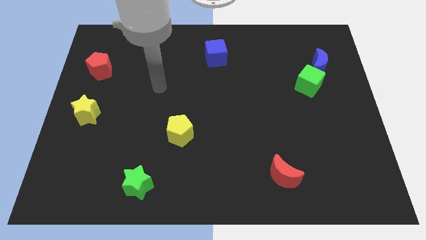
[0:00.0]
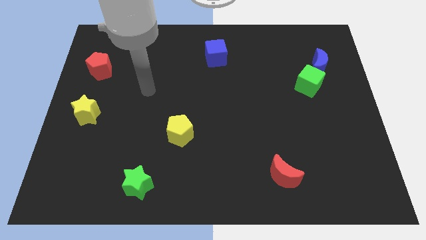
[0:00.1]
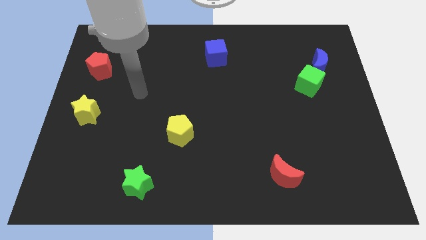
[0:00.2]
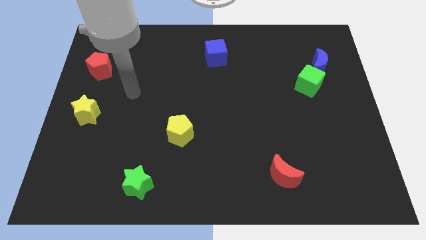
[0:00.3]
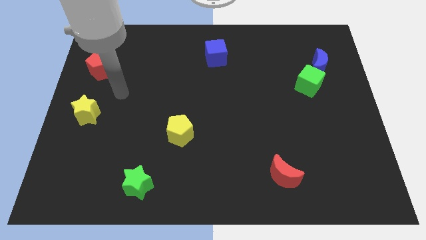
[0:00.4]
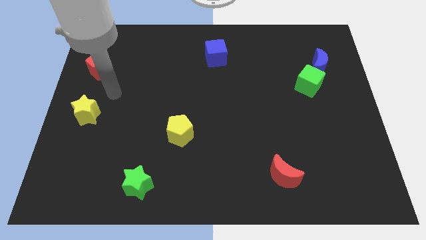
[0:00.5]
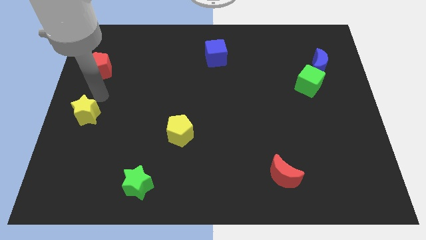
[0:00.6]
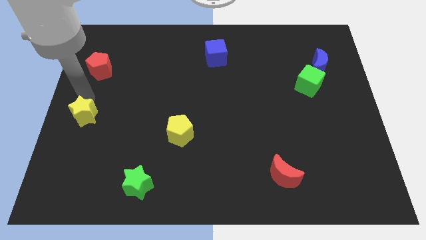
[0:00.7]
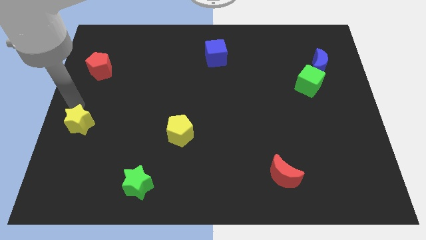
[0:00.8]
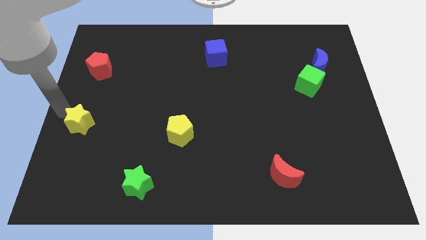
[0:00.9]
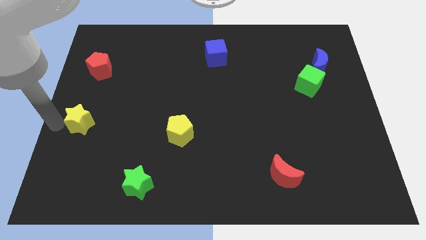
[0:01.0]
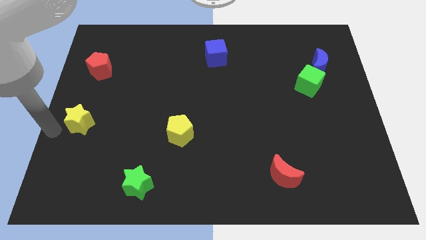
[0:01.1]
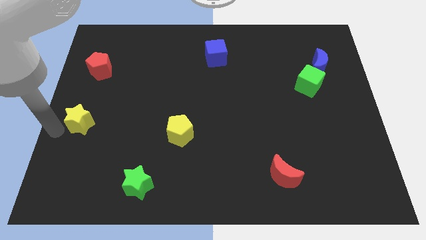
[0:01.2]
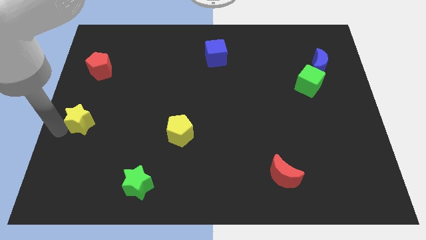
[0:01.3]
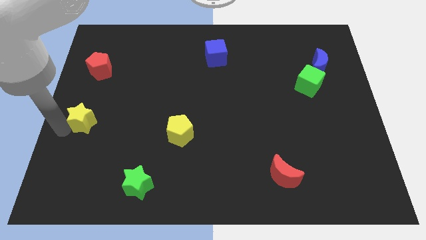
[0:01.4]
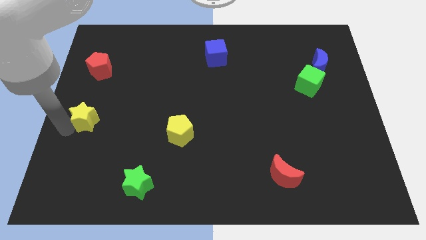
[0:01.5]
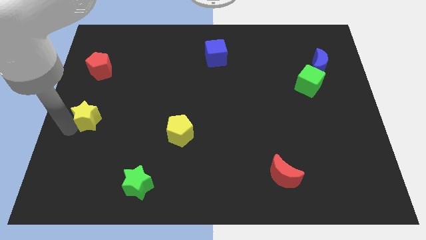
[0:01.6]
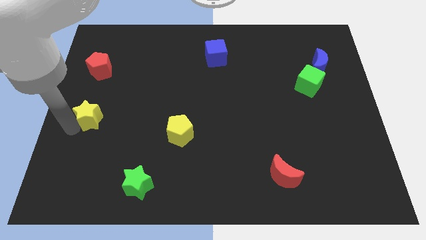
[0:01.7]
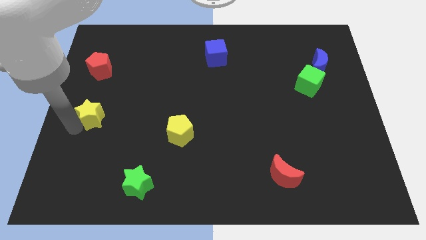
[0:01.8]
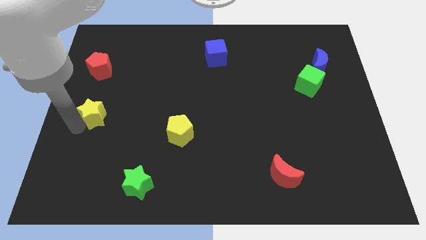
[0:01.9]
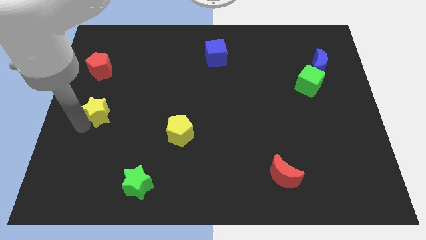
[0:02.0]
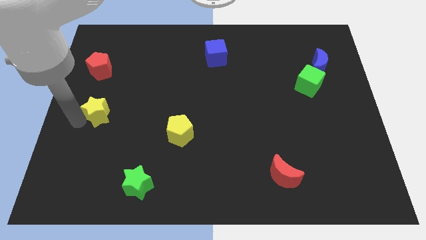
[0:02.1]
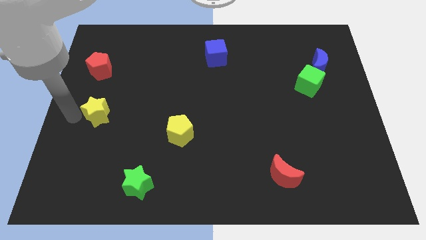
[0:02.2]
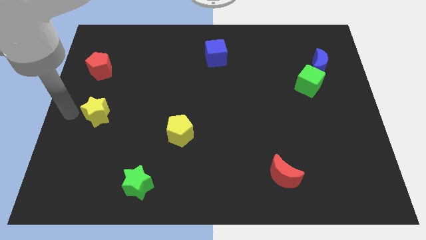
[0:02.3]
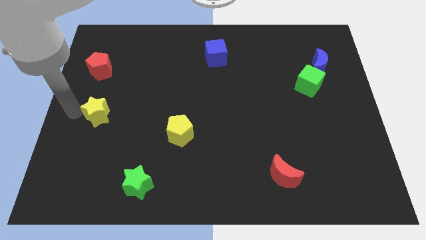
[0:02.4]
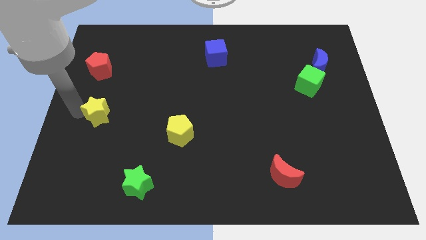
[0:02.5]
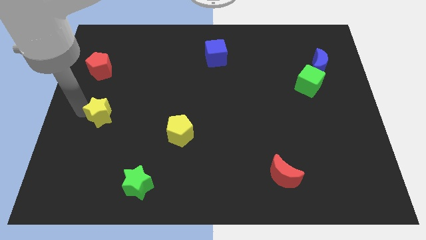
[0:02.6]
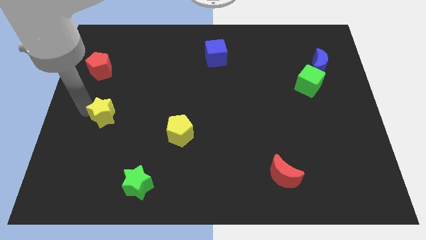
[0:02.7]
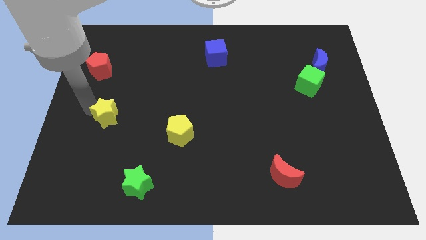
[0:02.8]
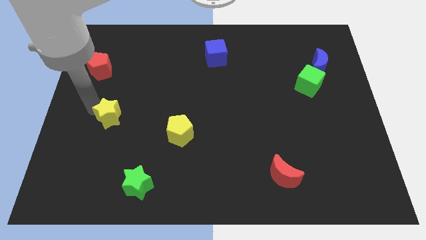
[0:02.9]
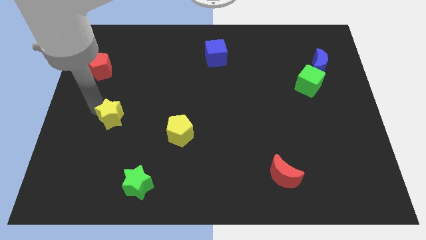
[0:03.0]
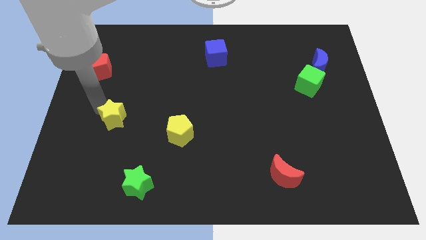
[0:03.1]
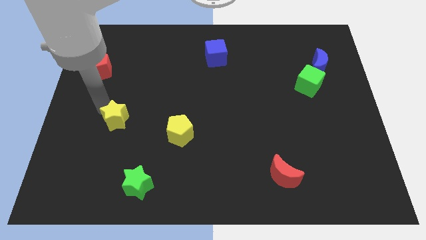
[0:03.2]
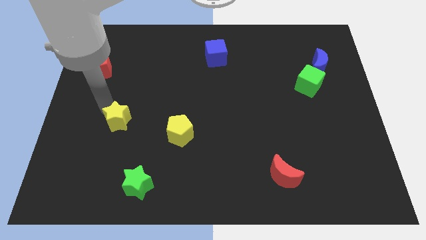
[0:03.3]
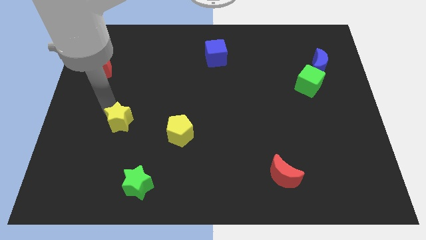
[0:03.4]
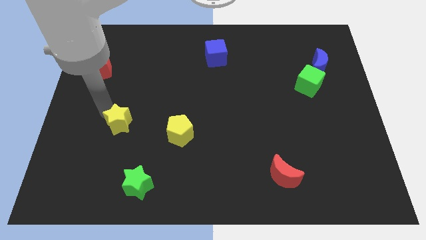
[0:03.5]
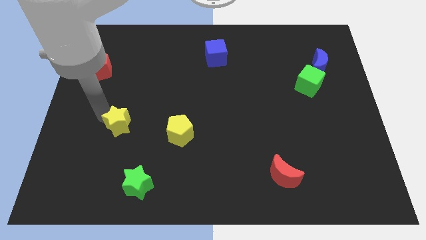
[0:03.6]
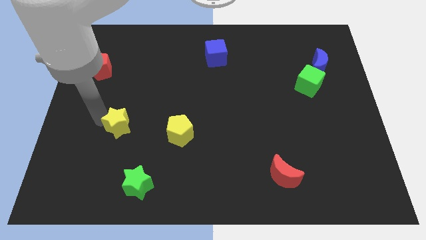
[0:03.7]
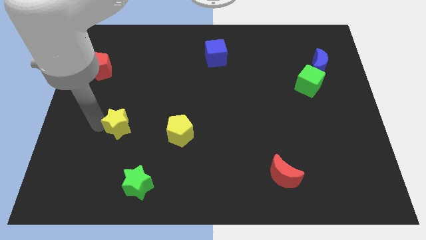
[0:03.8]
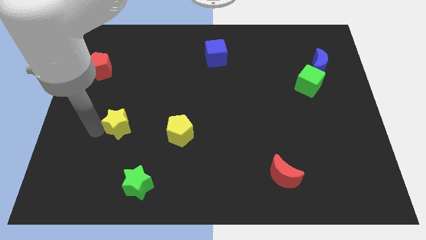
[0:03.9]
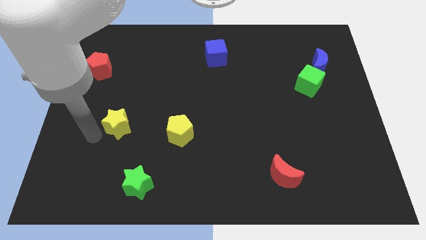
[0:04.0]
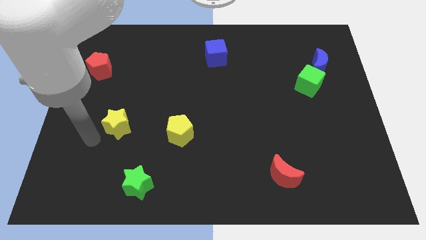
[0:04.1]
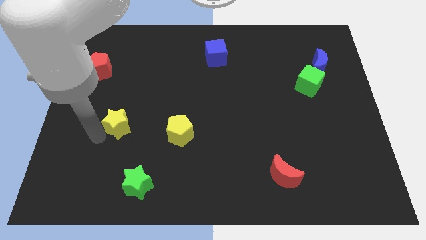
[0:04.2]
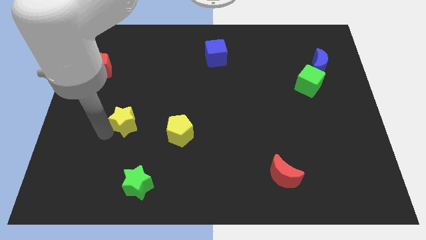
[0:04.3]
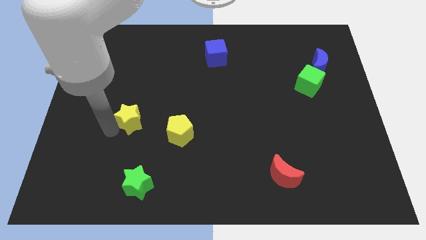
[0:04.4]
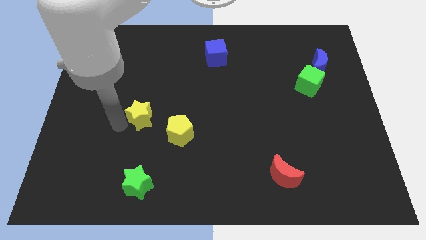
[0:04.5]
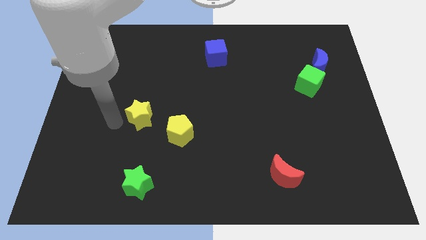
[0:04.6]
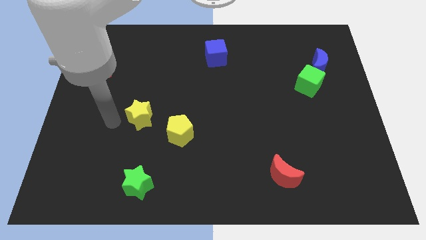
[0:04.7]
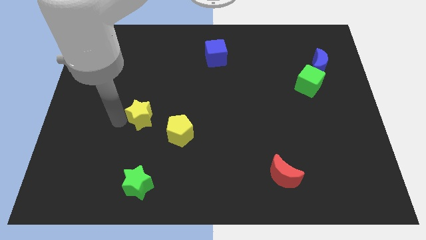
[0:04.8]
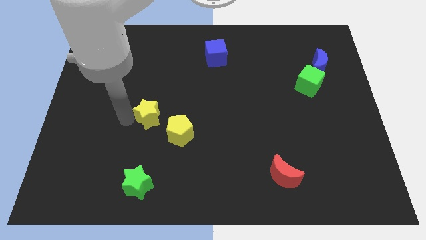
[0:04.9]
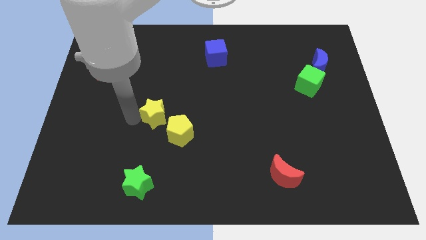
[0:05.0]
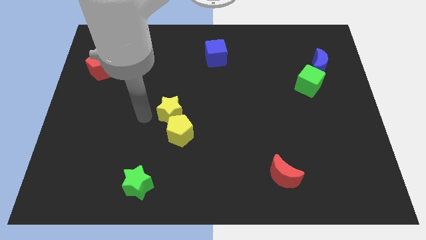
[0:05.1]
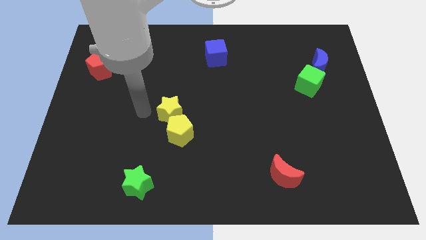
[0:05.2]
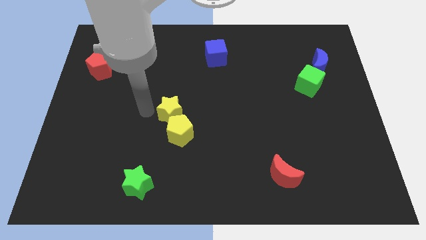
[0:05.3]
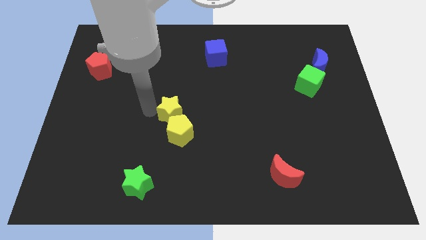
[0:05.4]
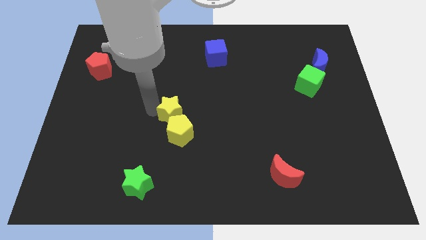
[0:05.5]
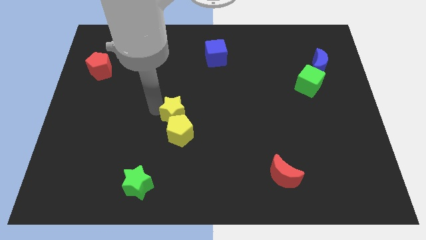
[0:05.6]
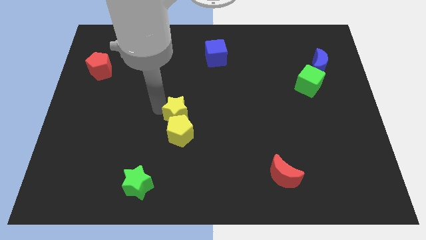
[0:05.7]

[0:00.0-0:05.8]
put the yellow star to the top right side of the yellow pentagon

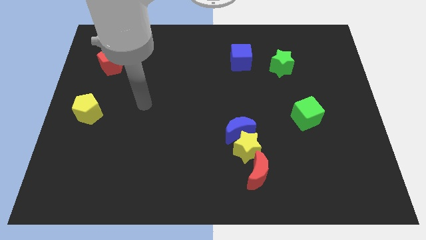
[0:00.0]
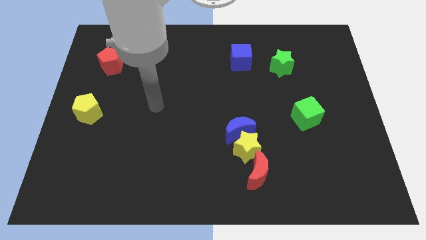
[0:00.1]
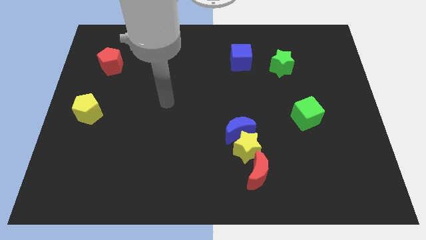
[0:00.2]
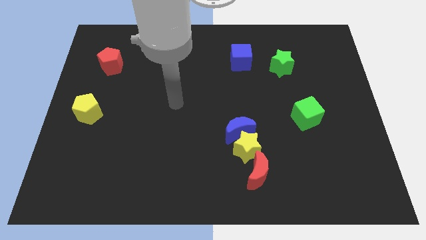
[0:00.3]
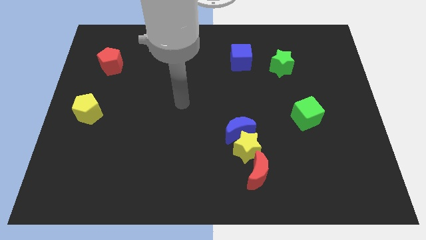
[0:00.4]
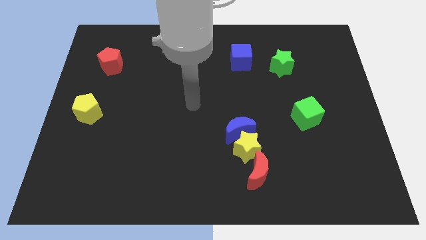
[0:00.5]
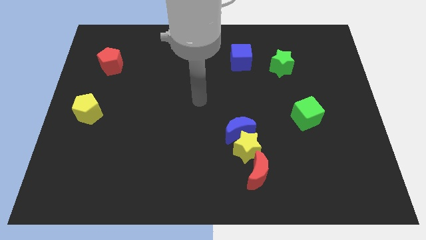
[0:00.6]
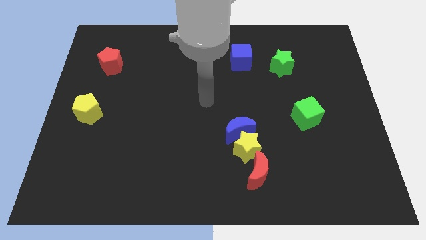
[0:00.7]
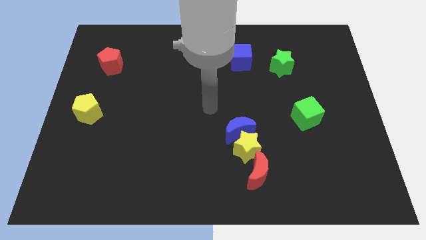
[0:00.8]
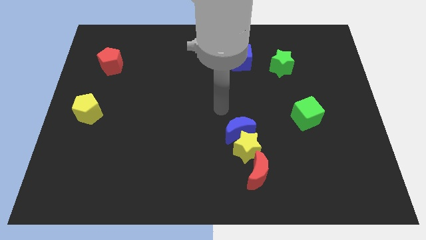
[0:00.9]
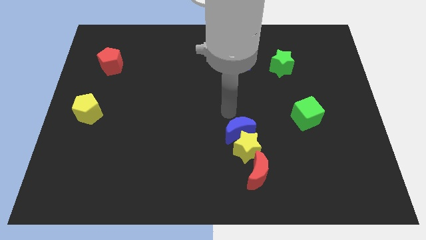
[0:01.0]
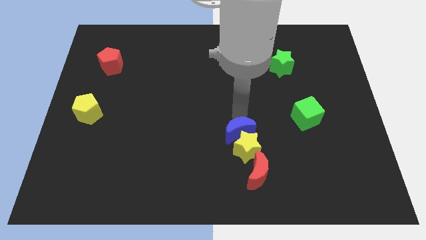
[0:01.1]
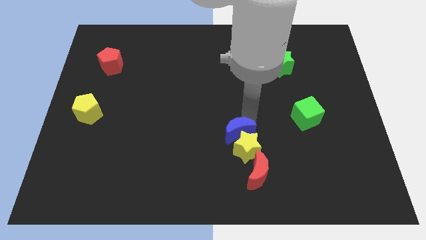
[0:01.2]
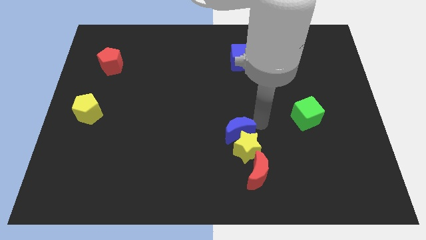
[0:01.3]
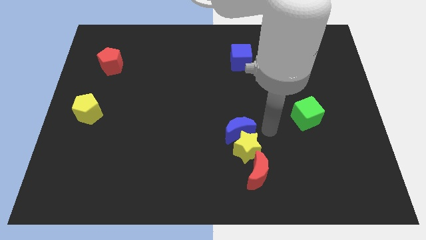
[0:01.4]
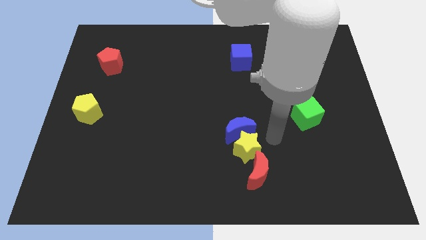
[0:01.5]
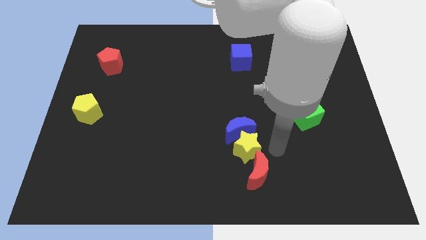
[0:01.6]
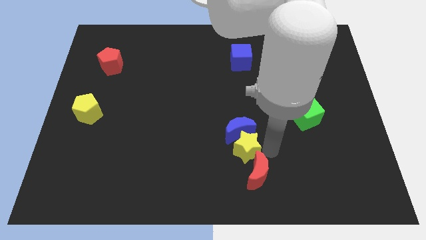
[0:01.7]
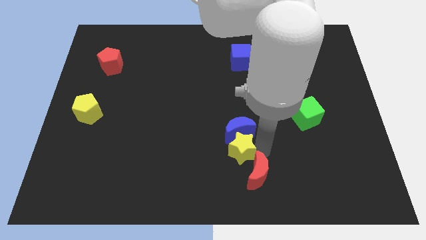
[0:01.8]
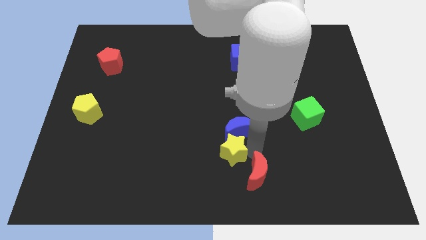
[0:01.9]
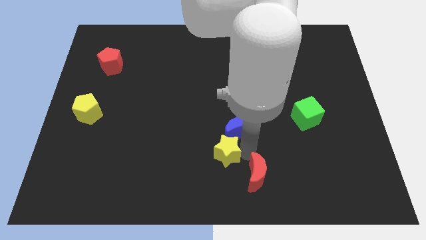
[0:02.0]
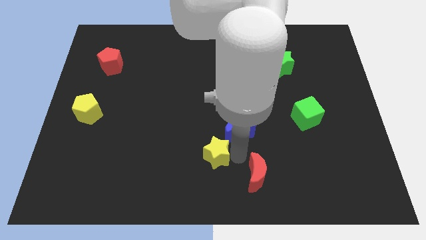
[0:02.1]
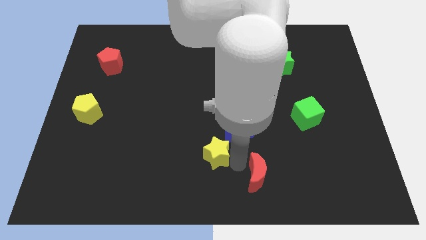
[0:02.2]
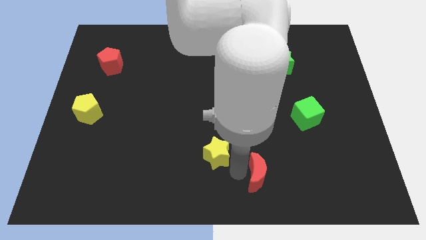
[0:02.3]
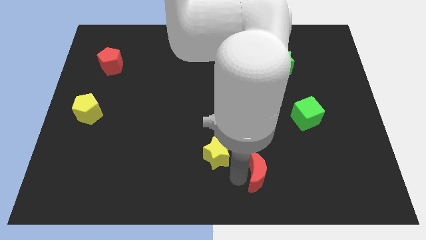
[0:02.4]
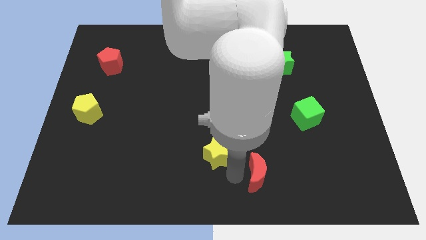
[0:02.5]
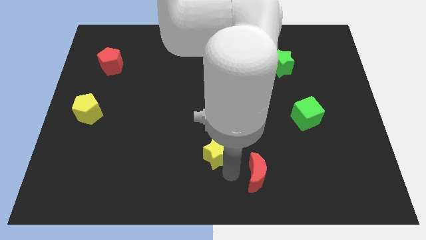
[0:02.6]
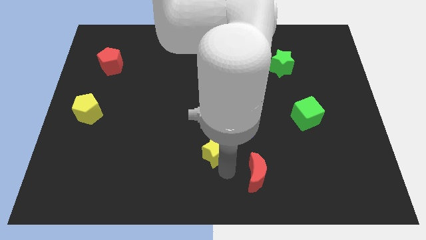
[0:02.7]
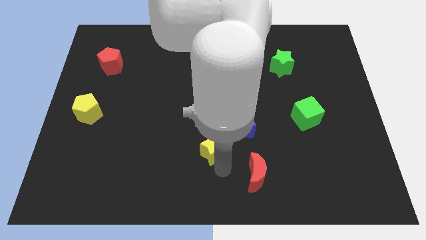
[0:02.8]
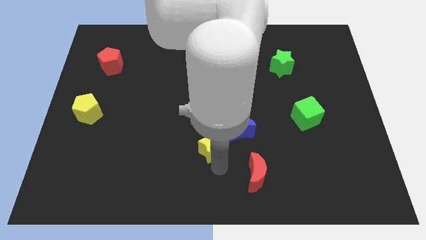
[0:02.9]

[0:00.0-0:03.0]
push the yellow star left of the blue moon
